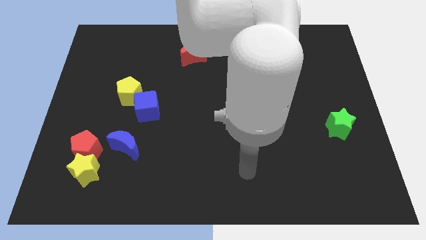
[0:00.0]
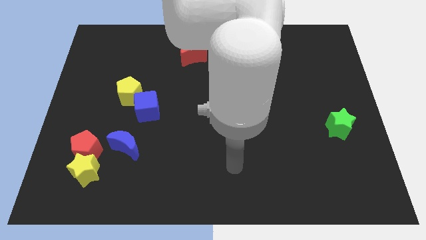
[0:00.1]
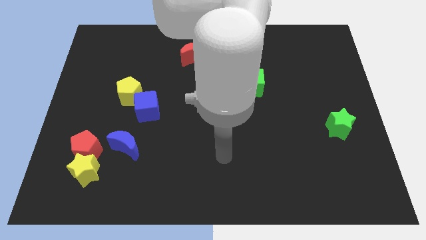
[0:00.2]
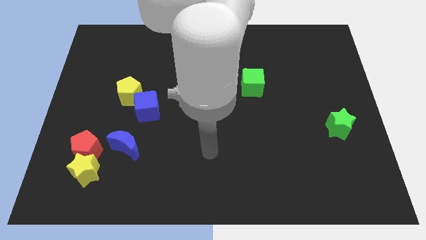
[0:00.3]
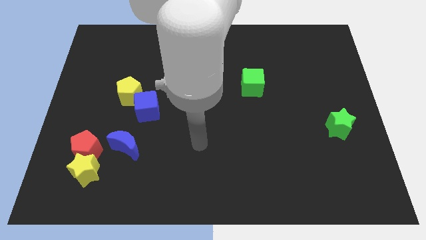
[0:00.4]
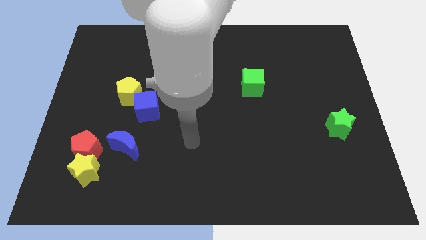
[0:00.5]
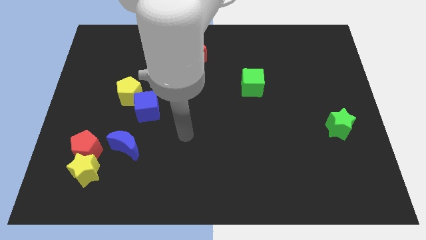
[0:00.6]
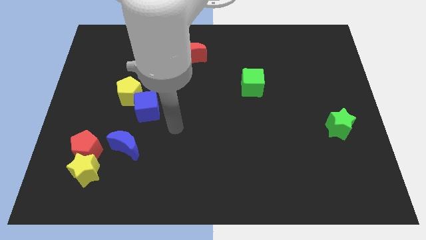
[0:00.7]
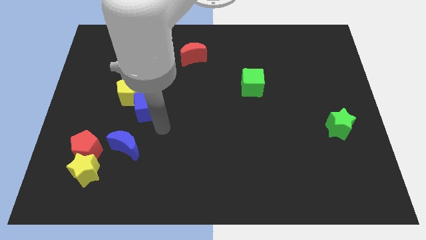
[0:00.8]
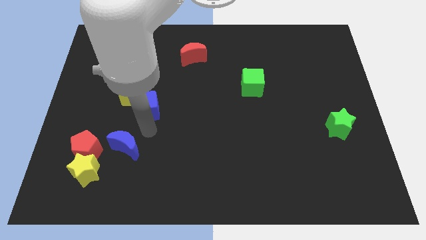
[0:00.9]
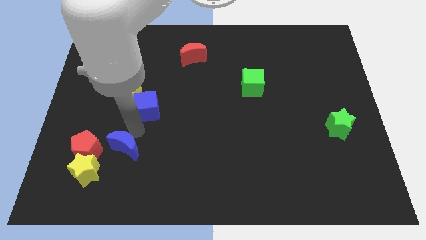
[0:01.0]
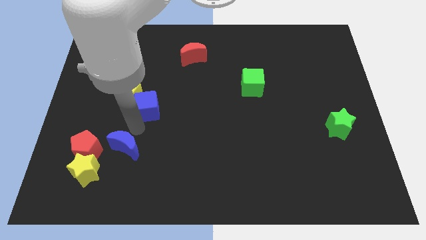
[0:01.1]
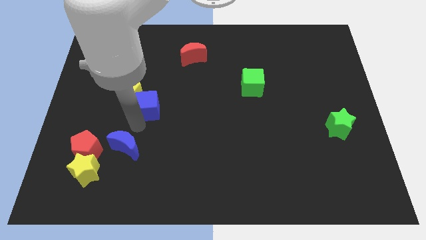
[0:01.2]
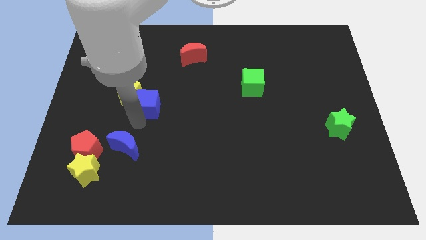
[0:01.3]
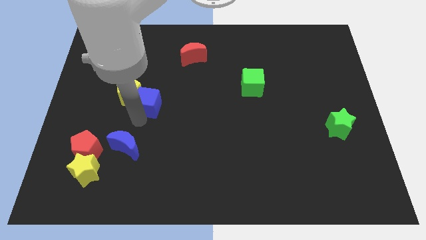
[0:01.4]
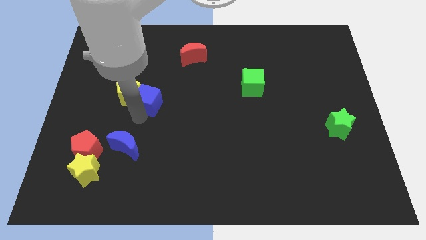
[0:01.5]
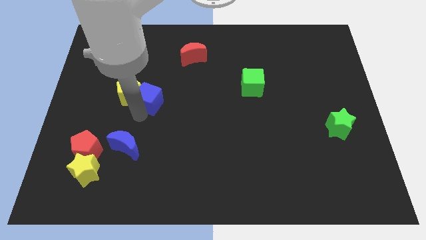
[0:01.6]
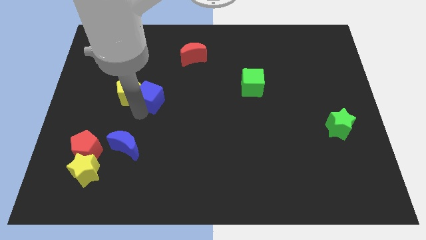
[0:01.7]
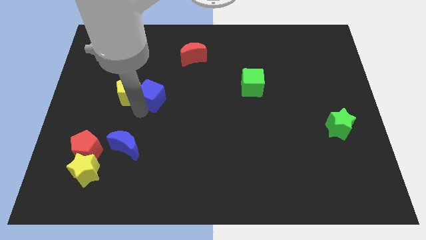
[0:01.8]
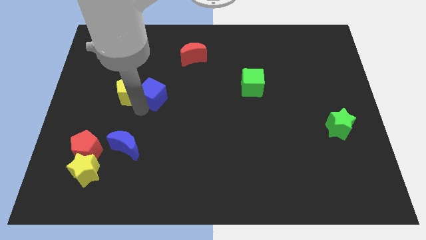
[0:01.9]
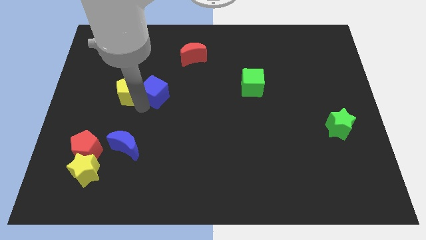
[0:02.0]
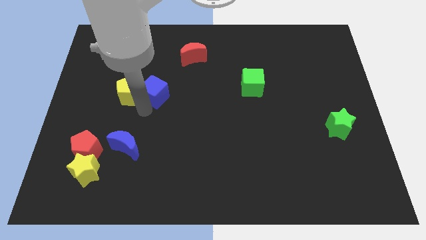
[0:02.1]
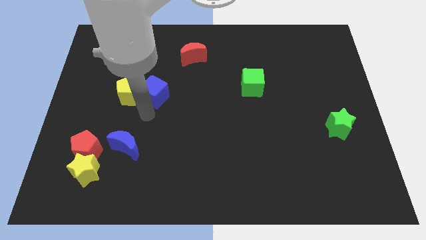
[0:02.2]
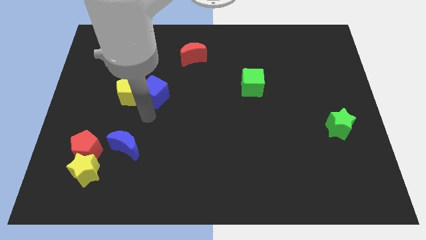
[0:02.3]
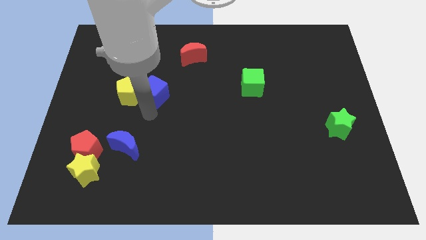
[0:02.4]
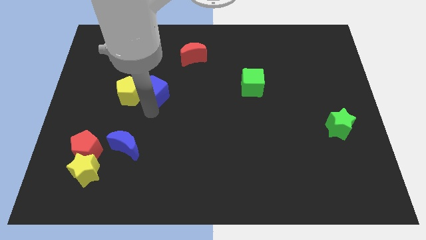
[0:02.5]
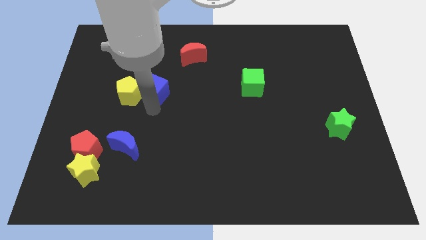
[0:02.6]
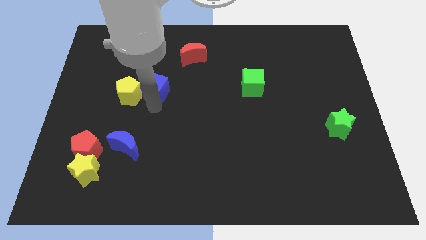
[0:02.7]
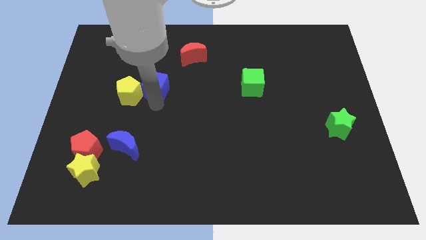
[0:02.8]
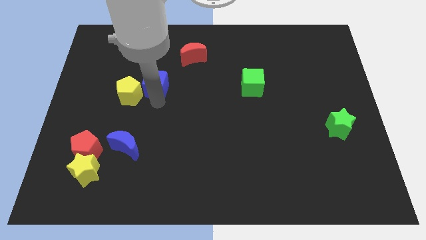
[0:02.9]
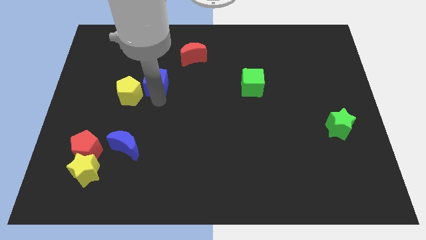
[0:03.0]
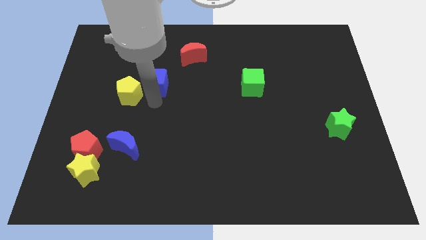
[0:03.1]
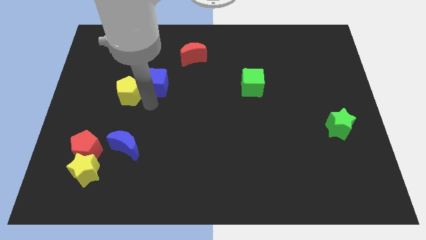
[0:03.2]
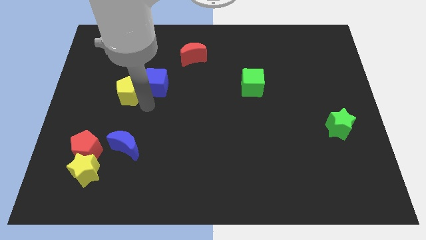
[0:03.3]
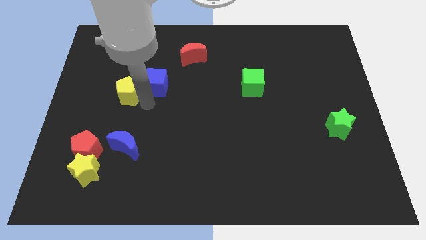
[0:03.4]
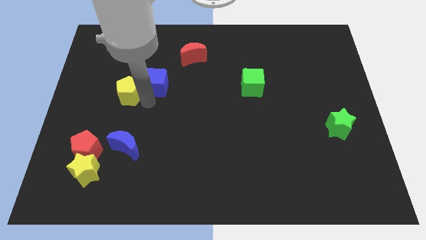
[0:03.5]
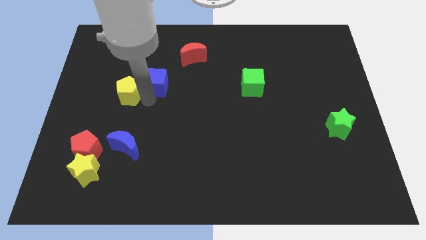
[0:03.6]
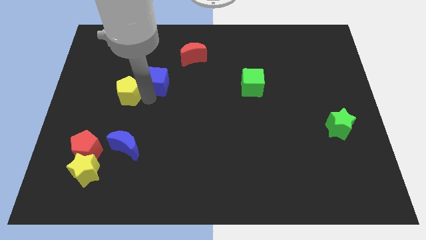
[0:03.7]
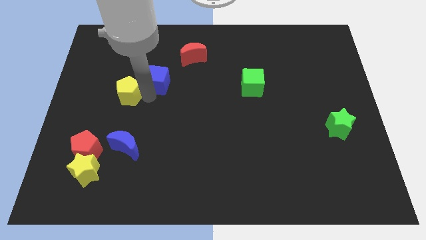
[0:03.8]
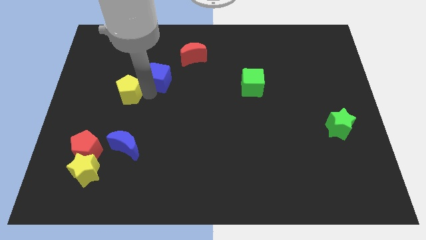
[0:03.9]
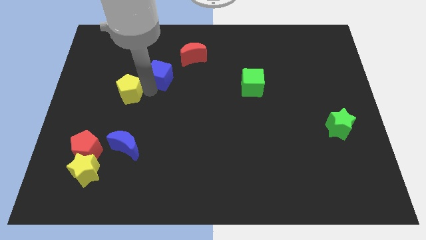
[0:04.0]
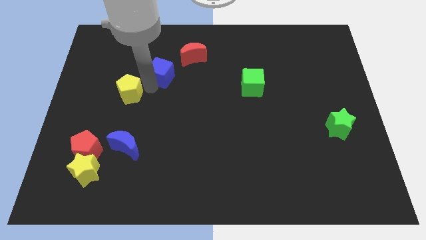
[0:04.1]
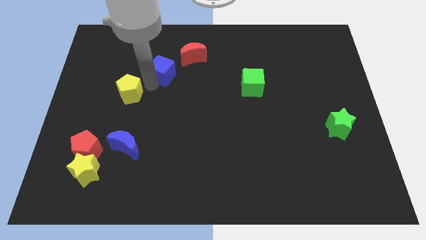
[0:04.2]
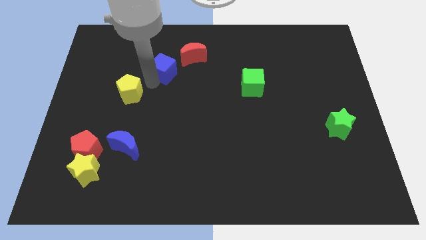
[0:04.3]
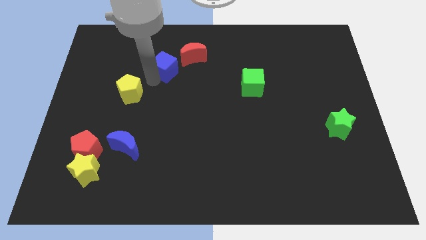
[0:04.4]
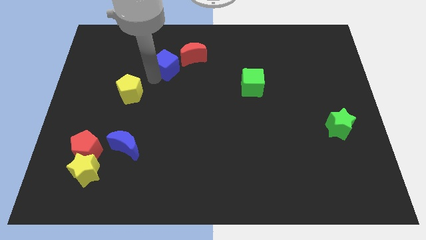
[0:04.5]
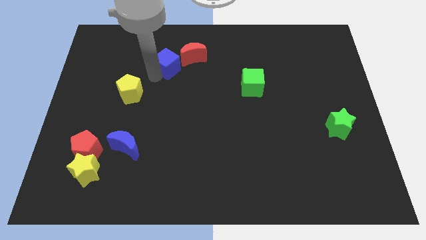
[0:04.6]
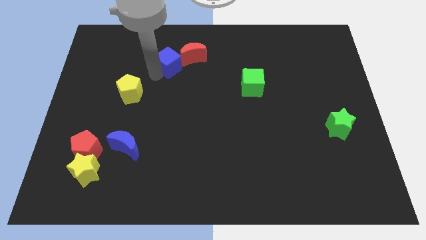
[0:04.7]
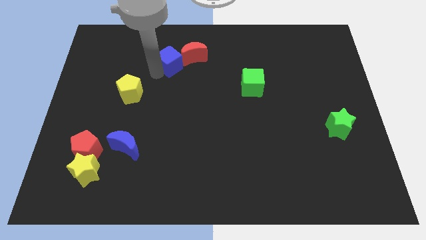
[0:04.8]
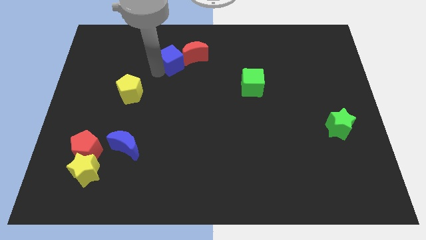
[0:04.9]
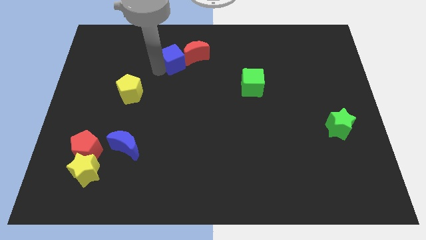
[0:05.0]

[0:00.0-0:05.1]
slide the blue cube next to the red moon

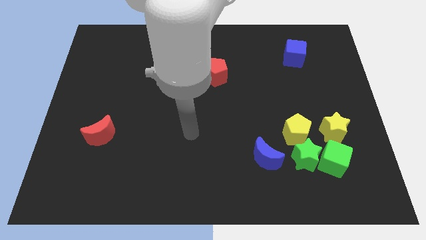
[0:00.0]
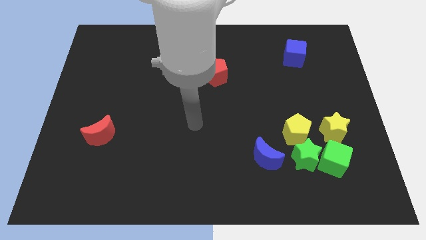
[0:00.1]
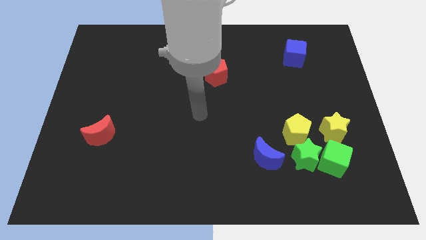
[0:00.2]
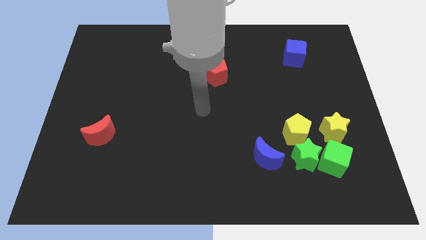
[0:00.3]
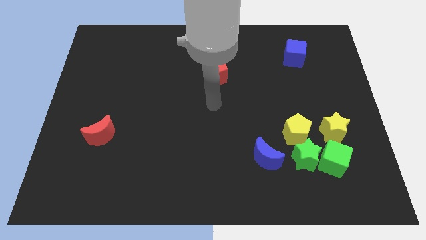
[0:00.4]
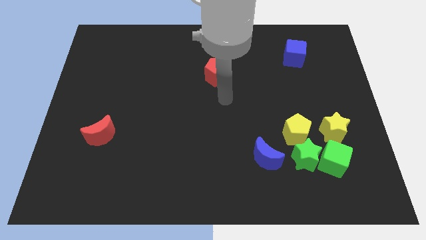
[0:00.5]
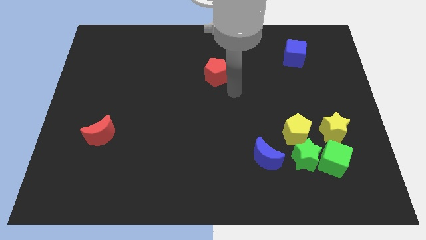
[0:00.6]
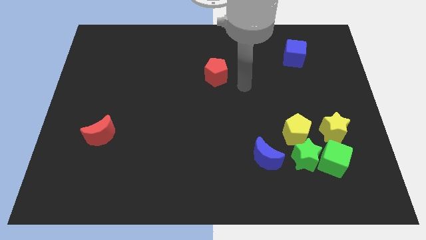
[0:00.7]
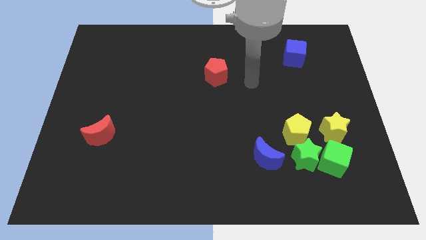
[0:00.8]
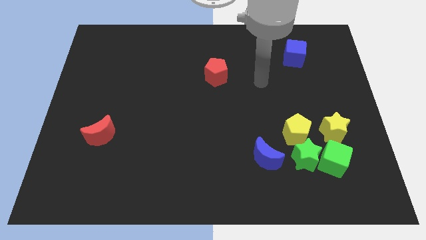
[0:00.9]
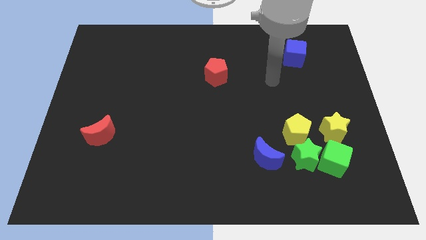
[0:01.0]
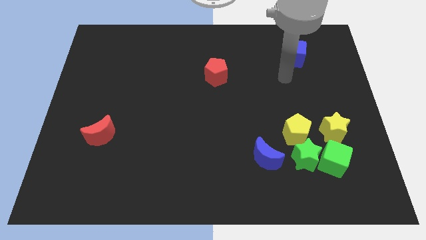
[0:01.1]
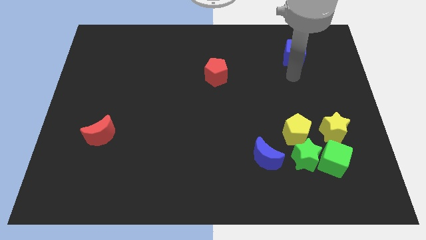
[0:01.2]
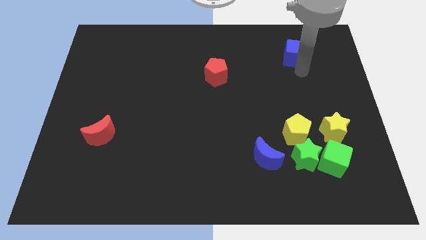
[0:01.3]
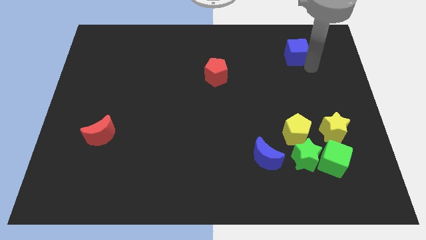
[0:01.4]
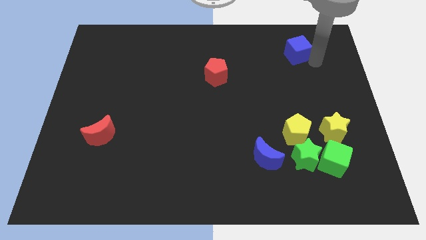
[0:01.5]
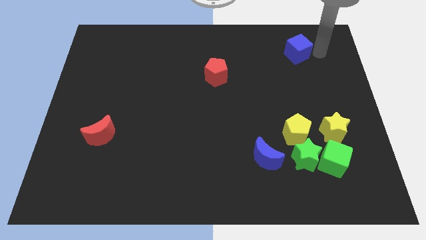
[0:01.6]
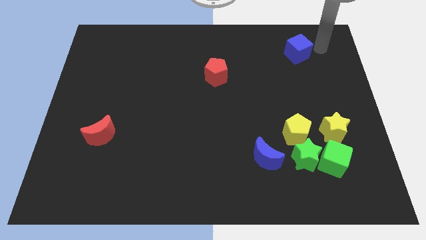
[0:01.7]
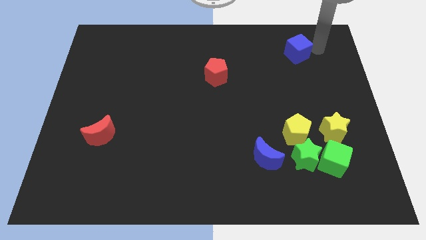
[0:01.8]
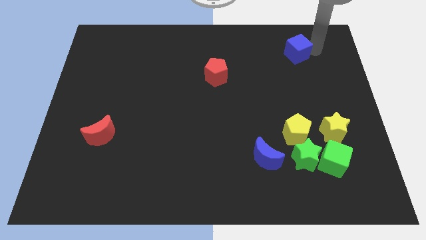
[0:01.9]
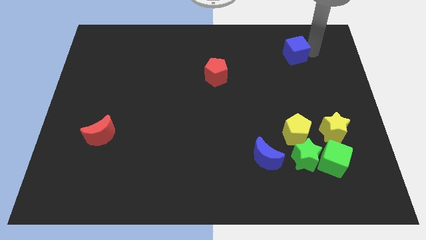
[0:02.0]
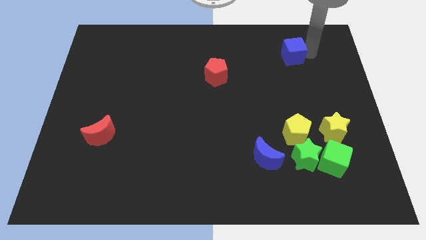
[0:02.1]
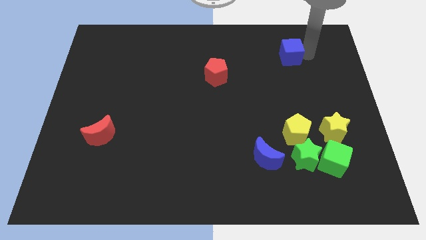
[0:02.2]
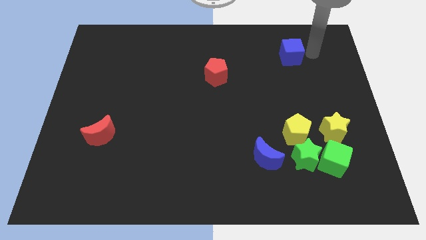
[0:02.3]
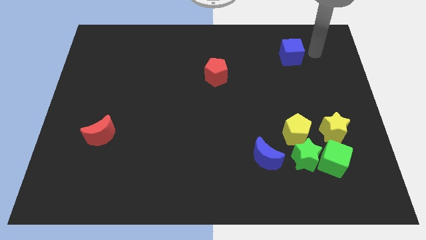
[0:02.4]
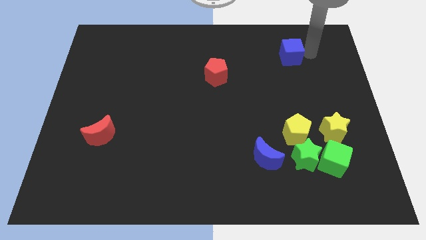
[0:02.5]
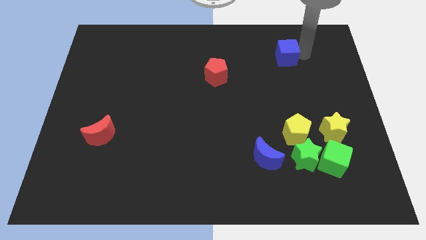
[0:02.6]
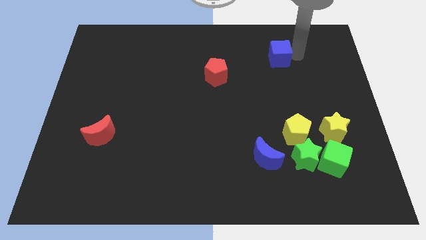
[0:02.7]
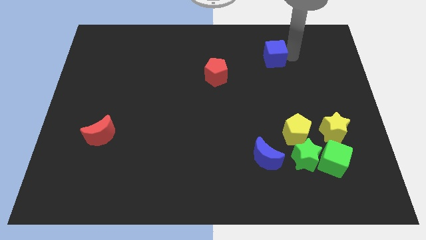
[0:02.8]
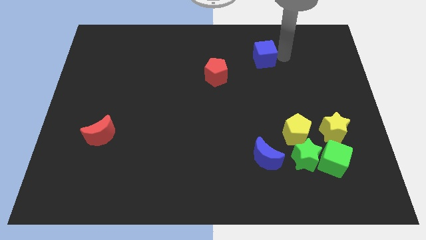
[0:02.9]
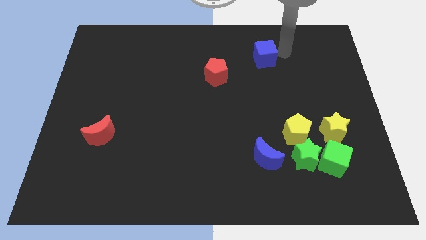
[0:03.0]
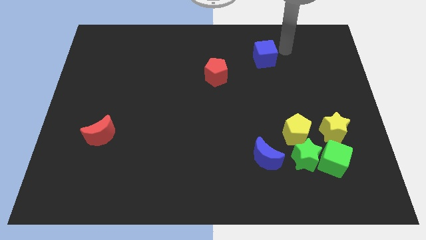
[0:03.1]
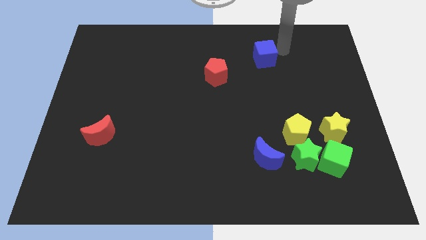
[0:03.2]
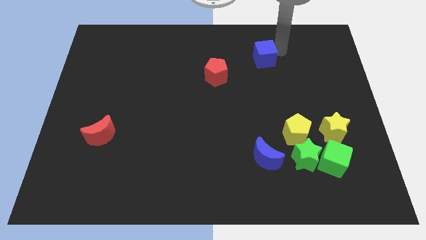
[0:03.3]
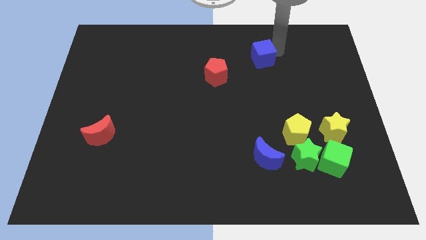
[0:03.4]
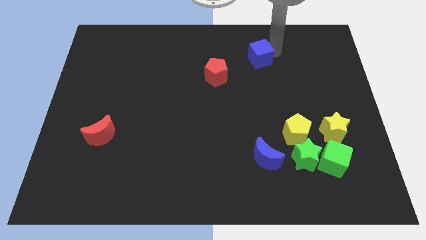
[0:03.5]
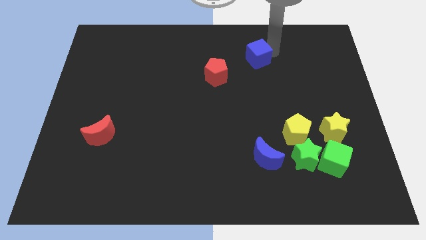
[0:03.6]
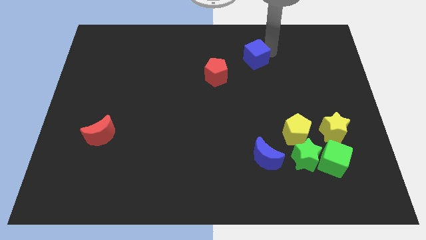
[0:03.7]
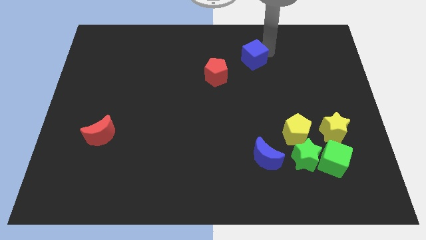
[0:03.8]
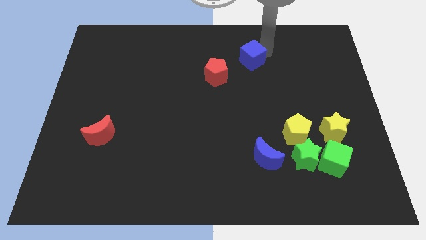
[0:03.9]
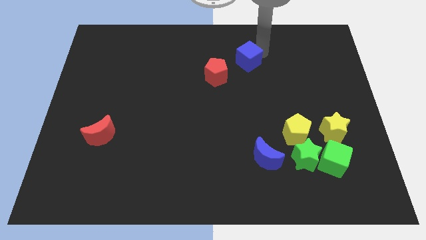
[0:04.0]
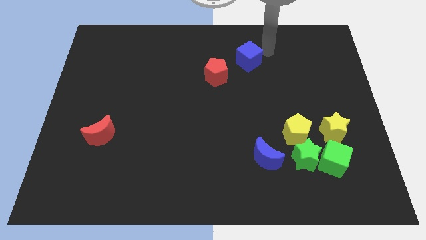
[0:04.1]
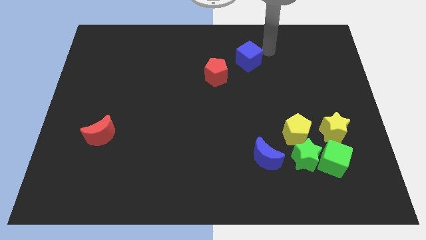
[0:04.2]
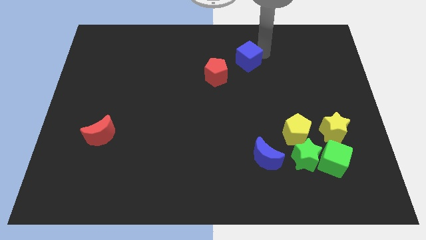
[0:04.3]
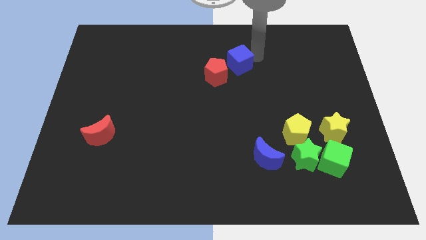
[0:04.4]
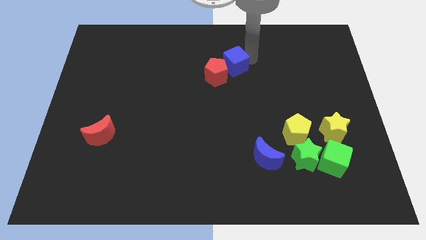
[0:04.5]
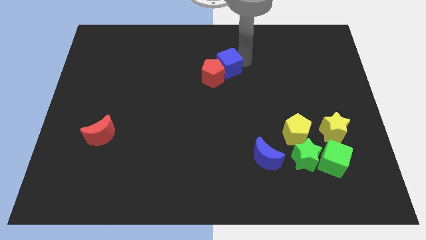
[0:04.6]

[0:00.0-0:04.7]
put the blue cube towards the red pentagon
